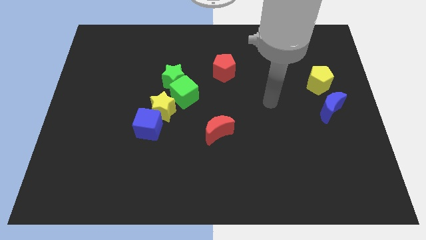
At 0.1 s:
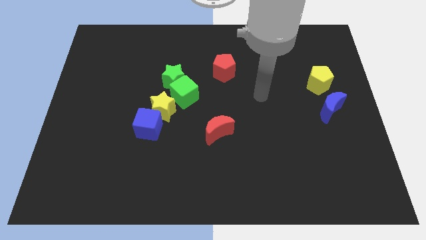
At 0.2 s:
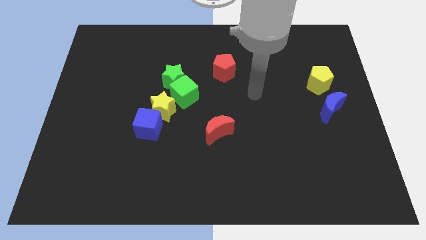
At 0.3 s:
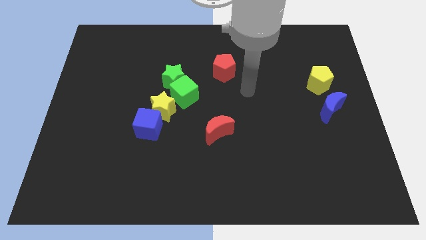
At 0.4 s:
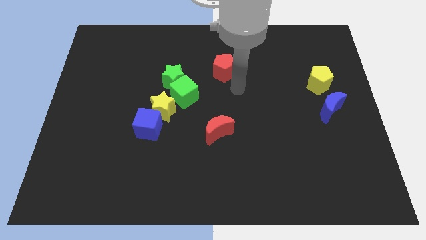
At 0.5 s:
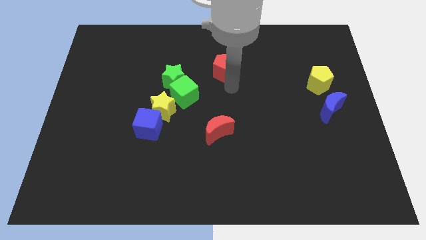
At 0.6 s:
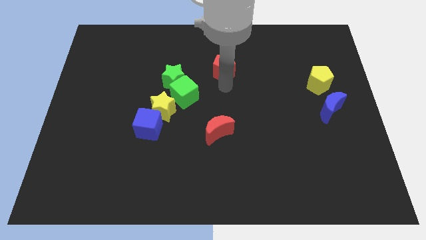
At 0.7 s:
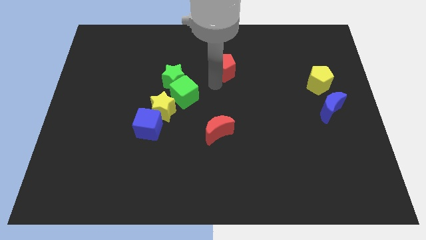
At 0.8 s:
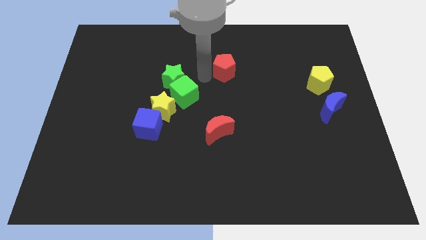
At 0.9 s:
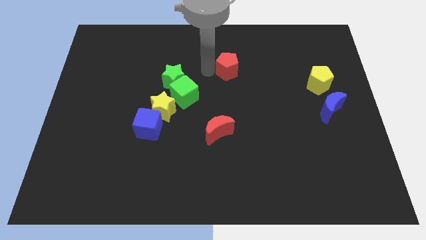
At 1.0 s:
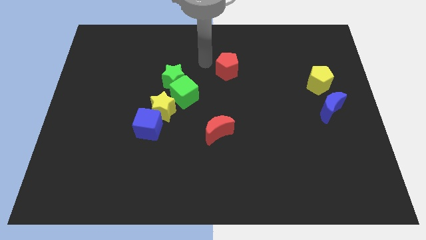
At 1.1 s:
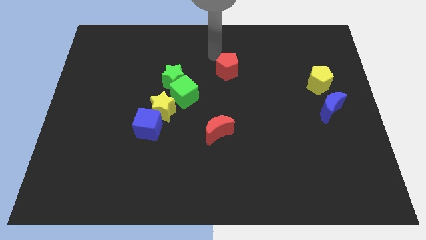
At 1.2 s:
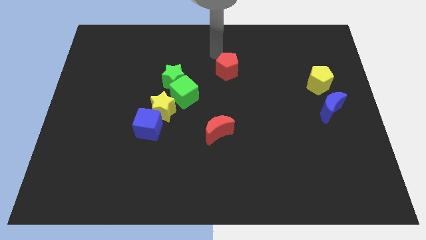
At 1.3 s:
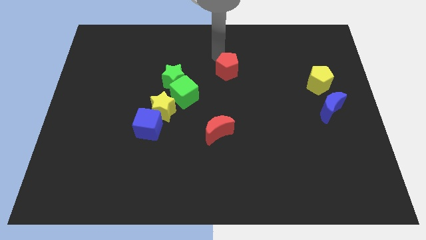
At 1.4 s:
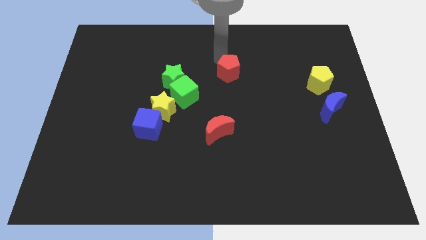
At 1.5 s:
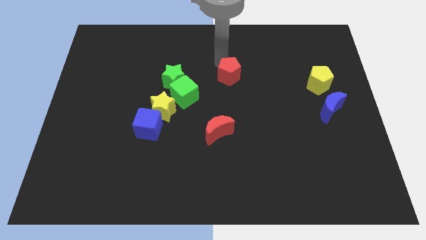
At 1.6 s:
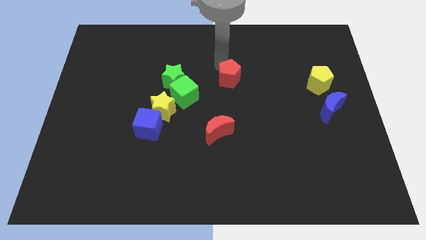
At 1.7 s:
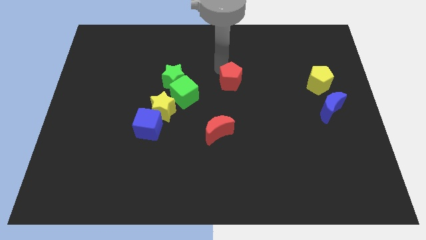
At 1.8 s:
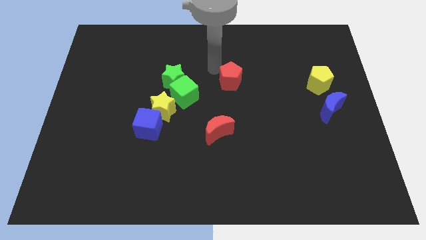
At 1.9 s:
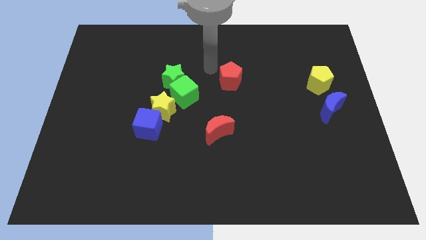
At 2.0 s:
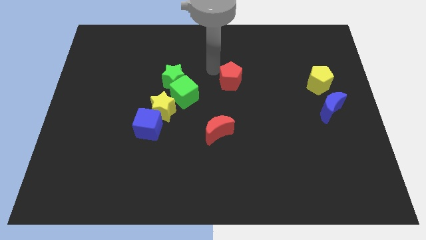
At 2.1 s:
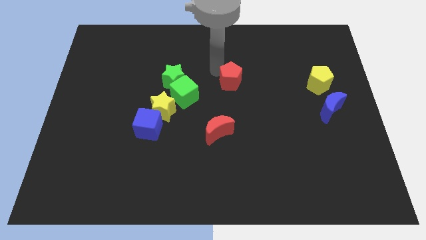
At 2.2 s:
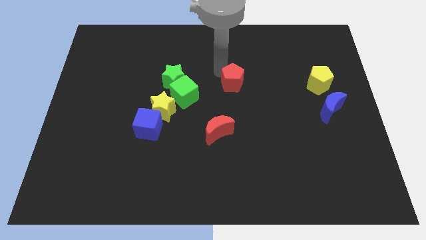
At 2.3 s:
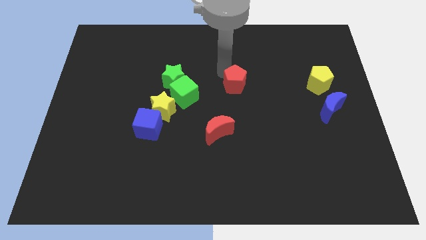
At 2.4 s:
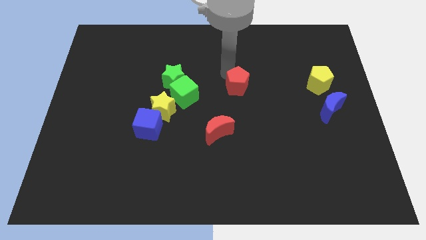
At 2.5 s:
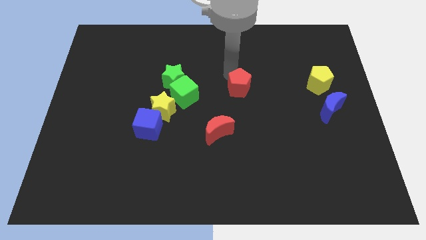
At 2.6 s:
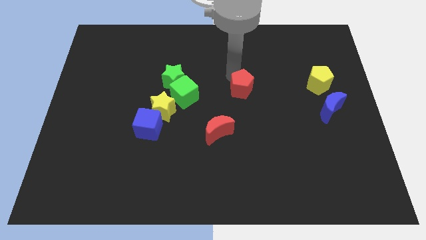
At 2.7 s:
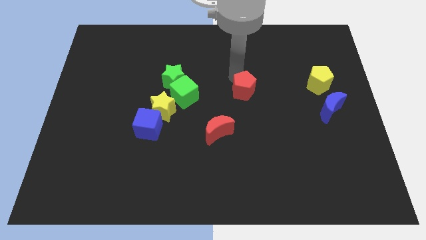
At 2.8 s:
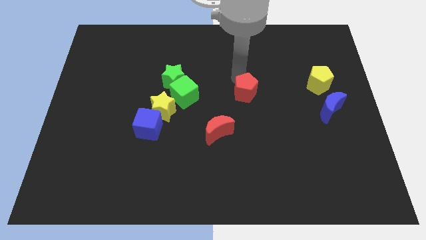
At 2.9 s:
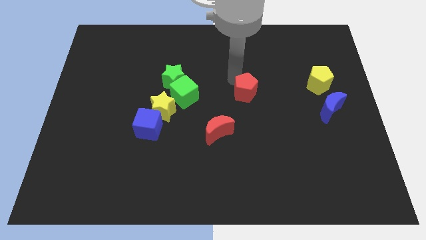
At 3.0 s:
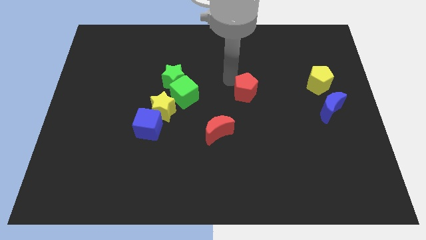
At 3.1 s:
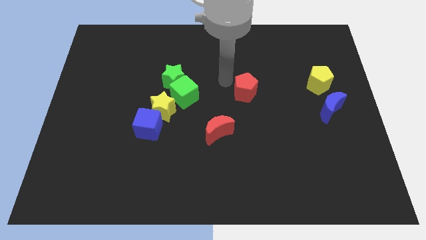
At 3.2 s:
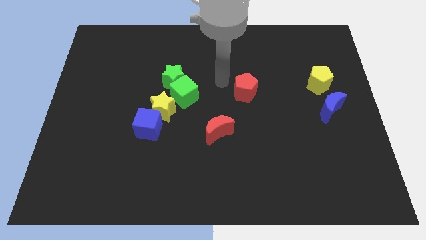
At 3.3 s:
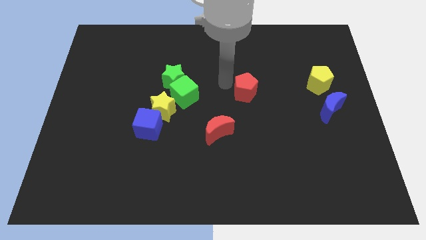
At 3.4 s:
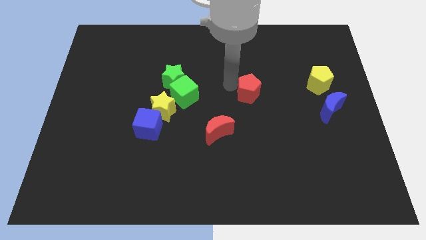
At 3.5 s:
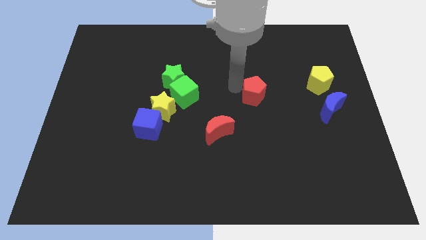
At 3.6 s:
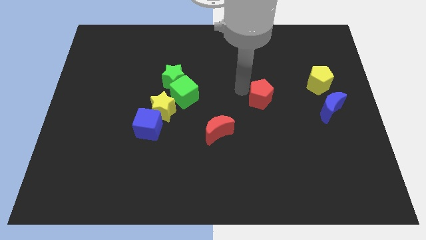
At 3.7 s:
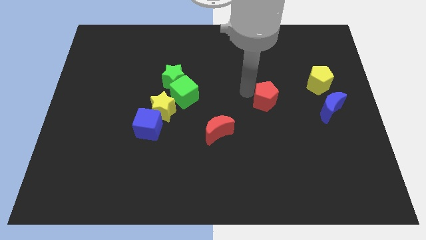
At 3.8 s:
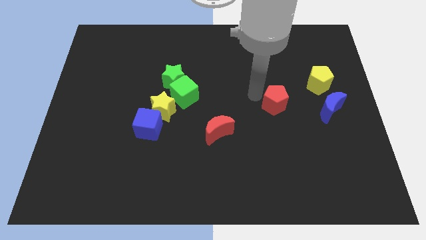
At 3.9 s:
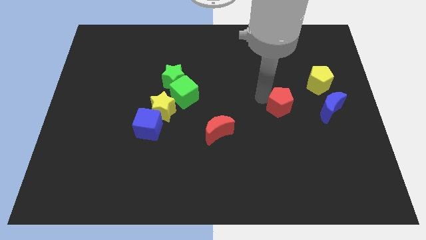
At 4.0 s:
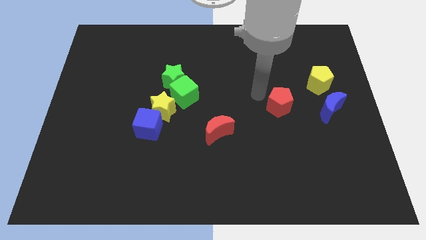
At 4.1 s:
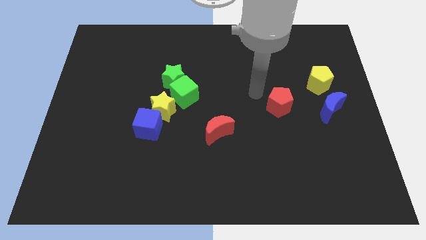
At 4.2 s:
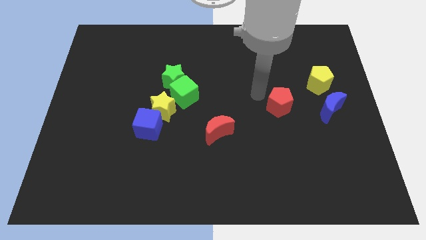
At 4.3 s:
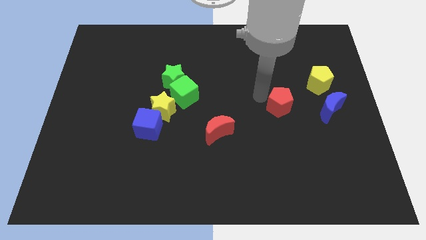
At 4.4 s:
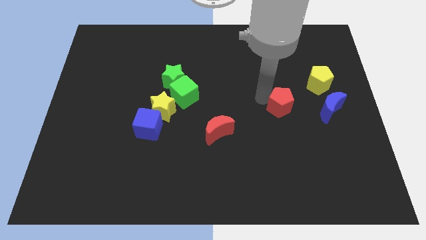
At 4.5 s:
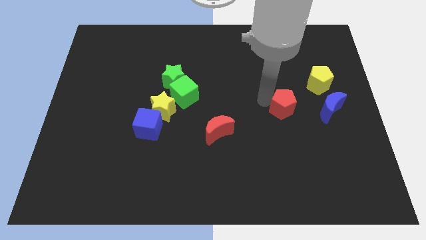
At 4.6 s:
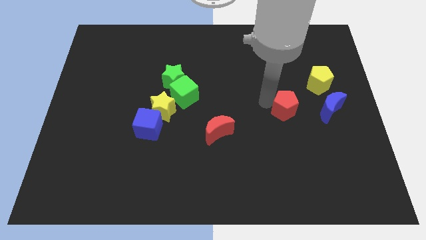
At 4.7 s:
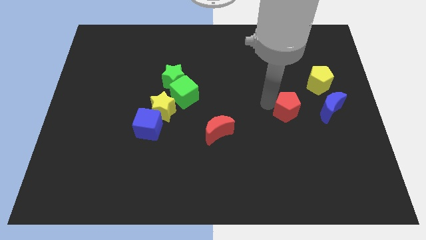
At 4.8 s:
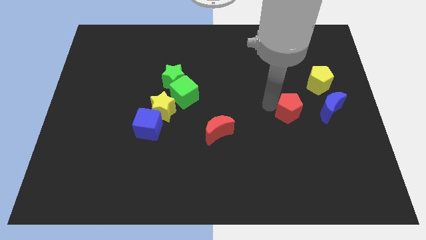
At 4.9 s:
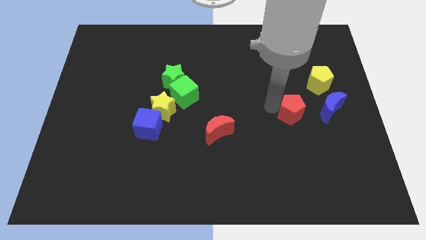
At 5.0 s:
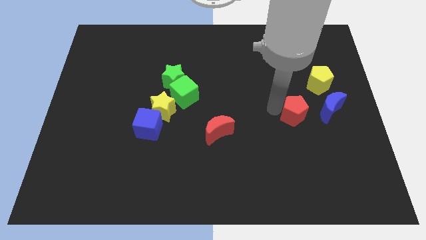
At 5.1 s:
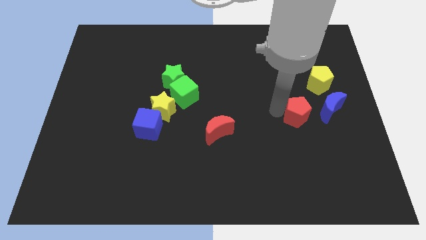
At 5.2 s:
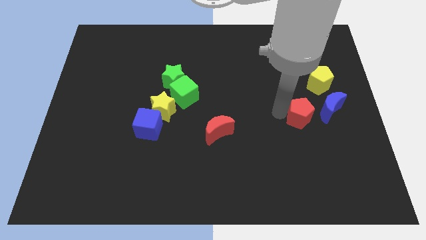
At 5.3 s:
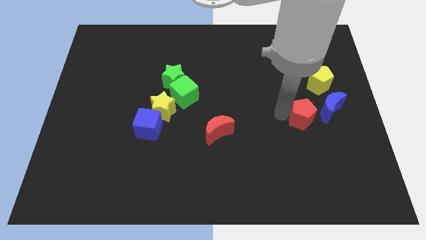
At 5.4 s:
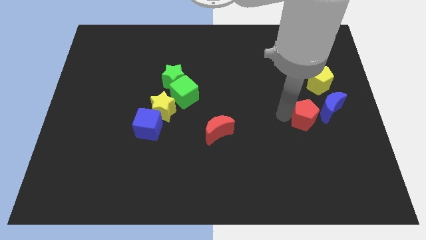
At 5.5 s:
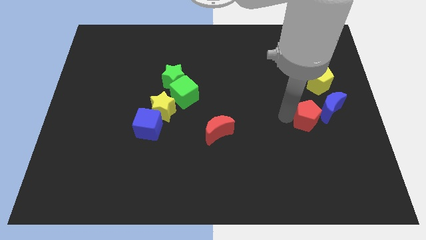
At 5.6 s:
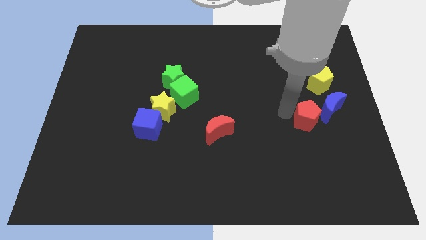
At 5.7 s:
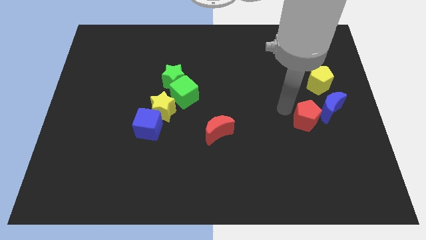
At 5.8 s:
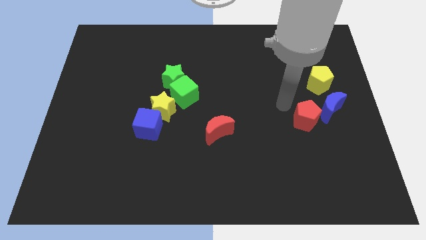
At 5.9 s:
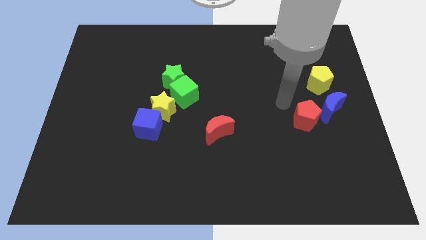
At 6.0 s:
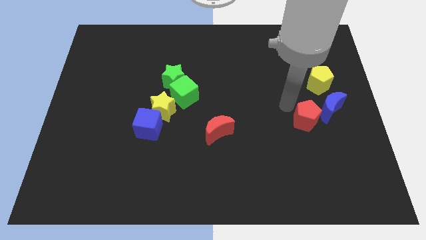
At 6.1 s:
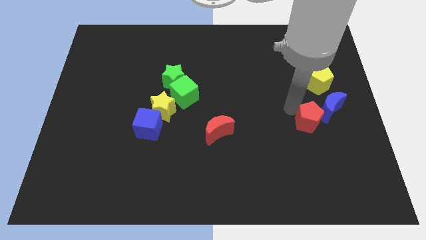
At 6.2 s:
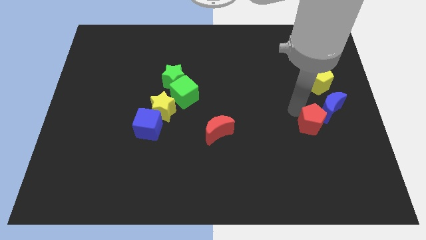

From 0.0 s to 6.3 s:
move the red pentagon to the bottom side of the blue moon

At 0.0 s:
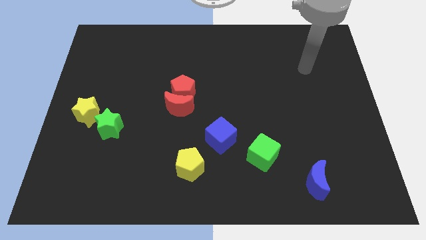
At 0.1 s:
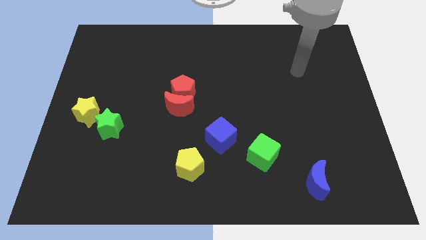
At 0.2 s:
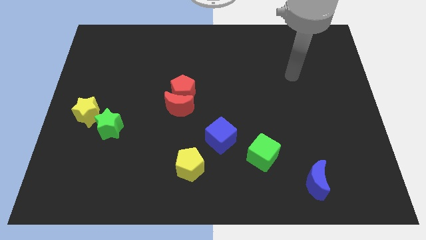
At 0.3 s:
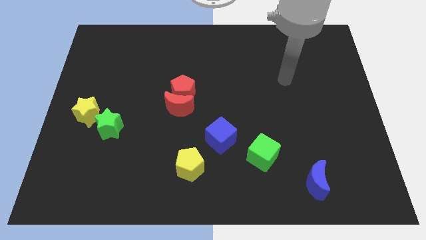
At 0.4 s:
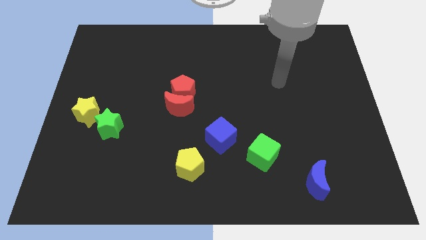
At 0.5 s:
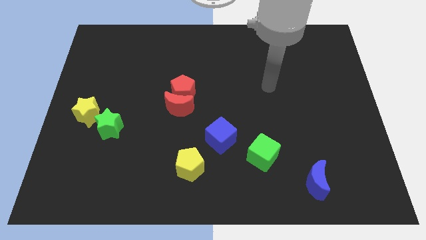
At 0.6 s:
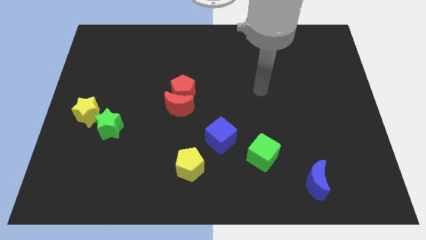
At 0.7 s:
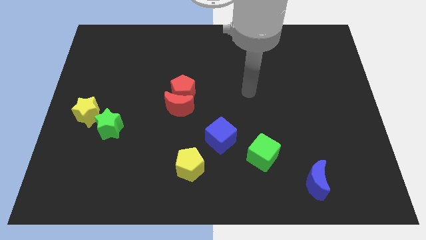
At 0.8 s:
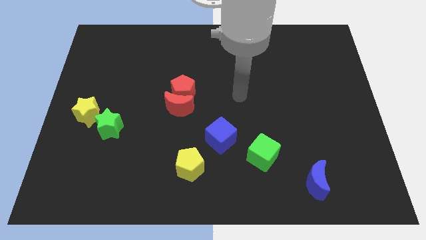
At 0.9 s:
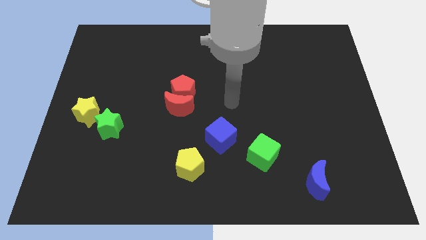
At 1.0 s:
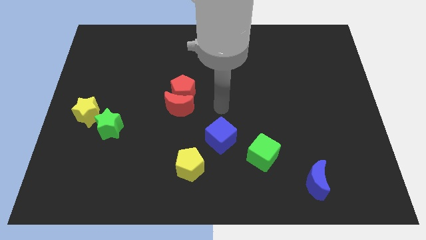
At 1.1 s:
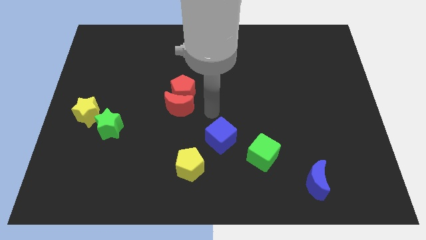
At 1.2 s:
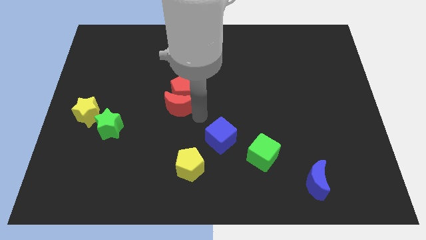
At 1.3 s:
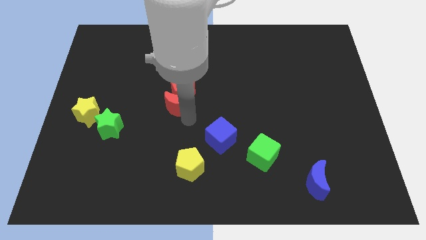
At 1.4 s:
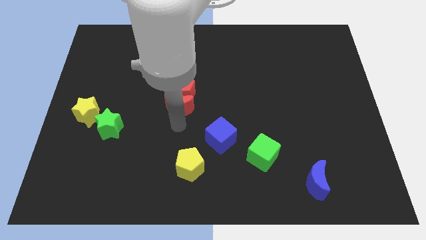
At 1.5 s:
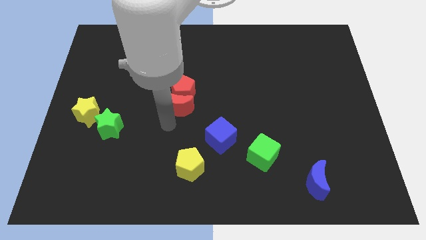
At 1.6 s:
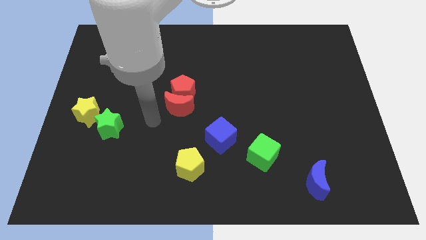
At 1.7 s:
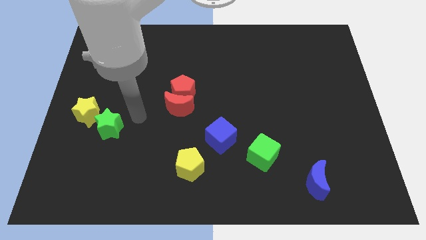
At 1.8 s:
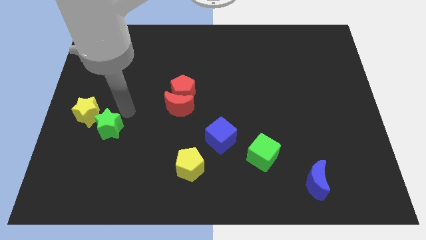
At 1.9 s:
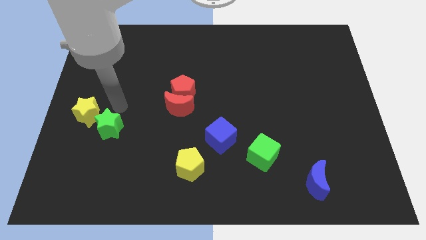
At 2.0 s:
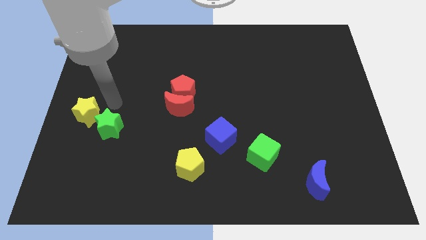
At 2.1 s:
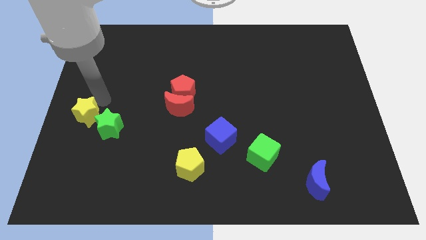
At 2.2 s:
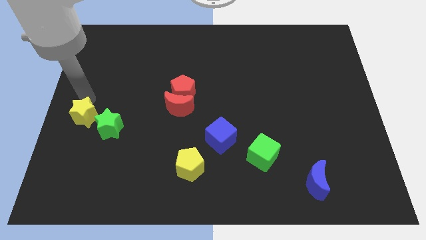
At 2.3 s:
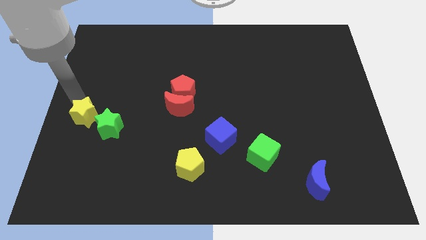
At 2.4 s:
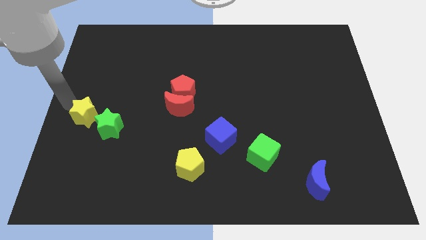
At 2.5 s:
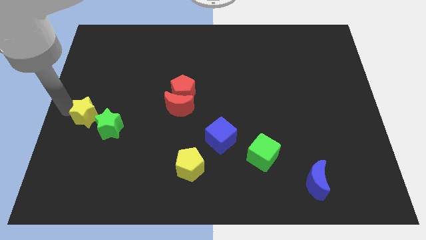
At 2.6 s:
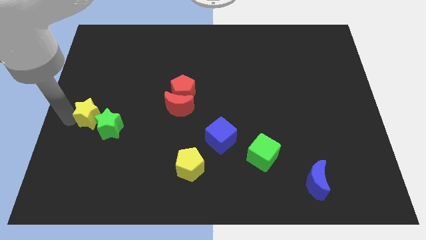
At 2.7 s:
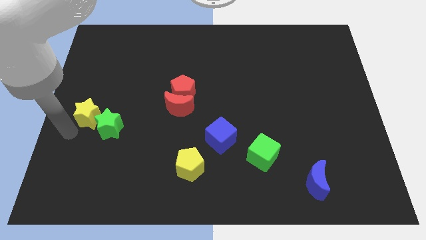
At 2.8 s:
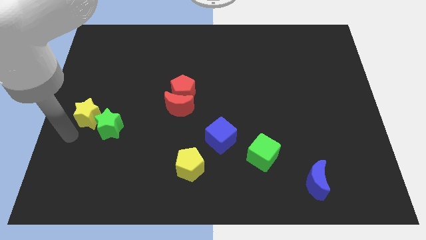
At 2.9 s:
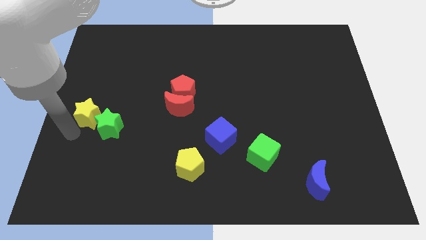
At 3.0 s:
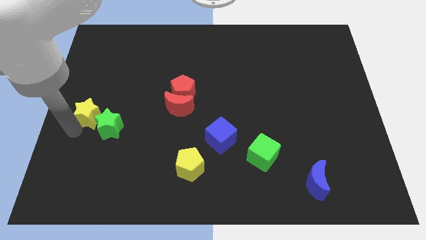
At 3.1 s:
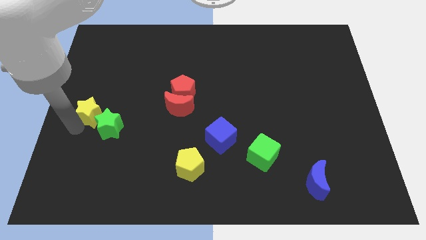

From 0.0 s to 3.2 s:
slide the yellow star above the green star
